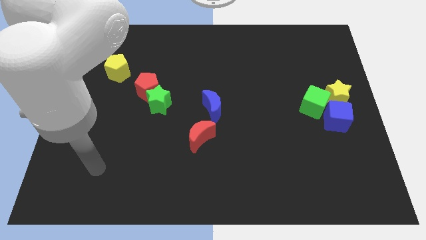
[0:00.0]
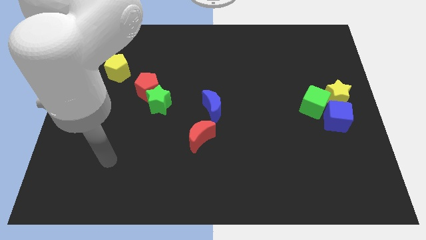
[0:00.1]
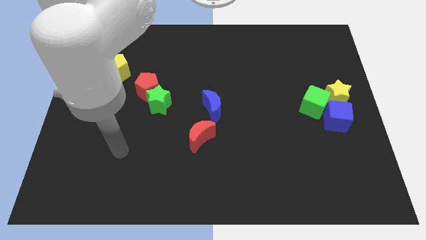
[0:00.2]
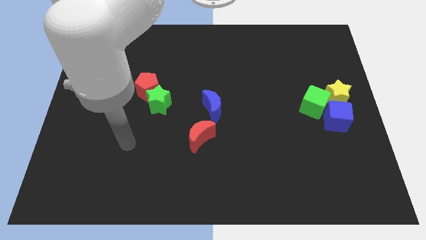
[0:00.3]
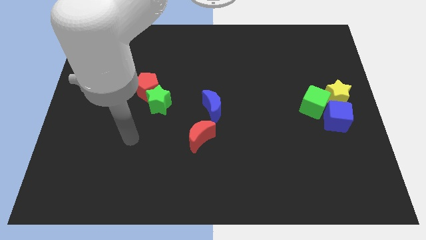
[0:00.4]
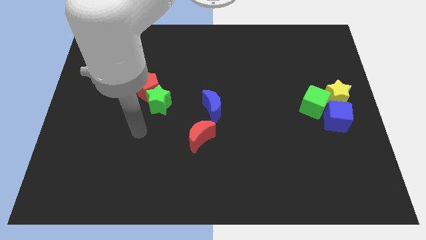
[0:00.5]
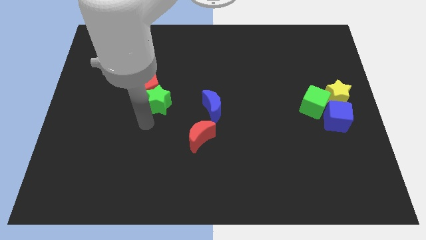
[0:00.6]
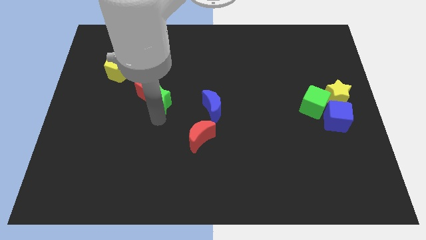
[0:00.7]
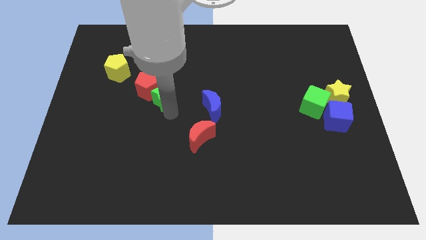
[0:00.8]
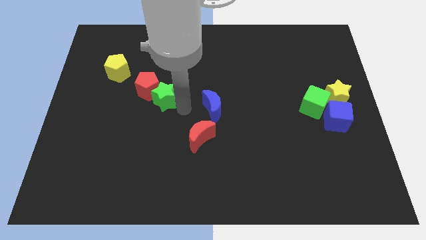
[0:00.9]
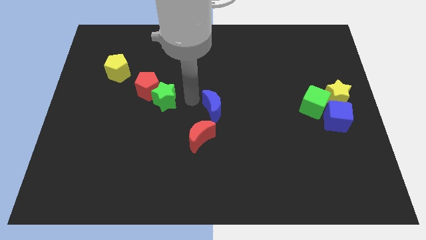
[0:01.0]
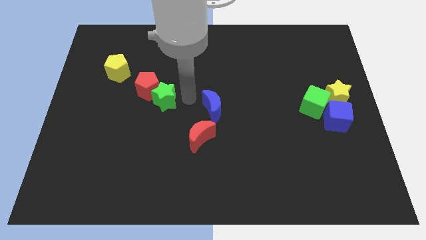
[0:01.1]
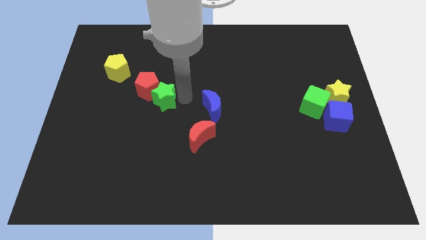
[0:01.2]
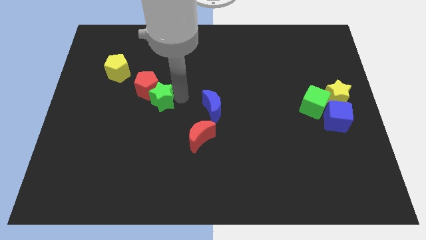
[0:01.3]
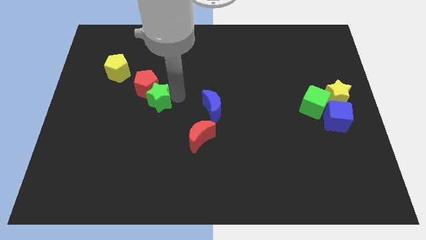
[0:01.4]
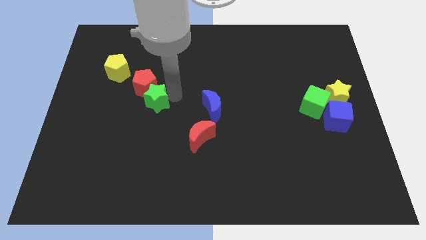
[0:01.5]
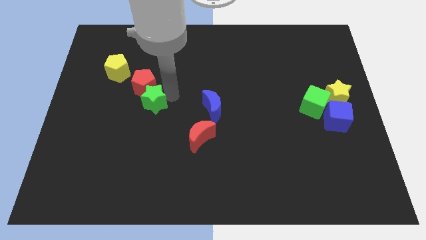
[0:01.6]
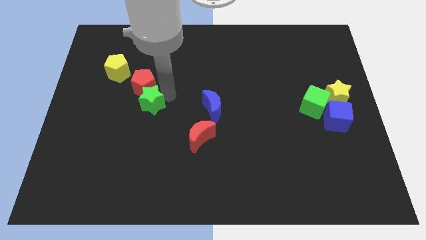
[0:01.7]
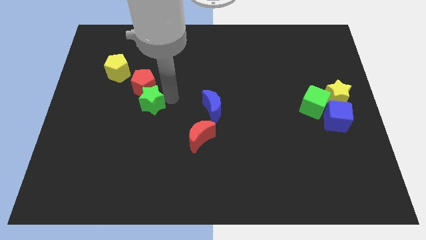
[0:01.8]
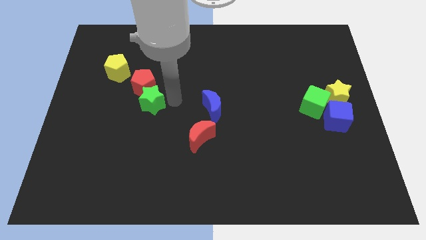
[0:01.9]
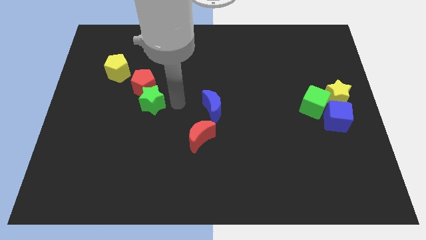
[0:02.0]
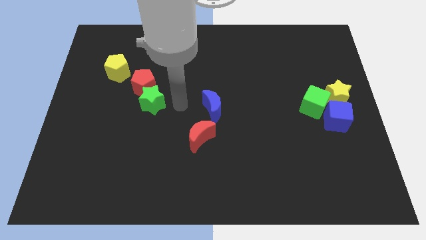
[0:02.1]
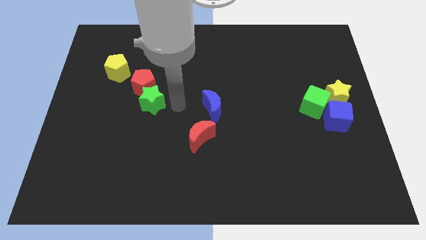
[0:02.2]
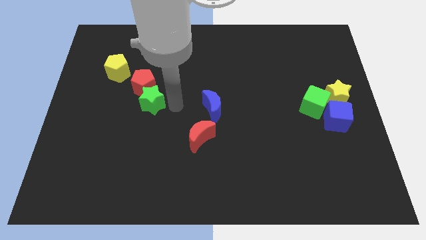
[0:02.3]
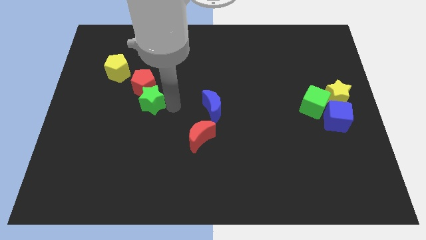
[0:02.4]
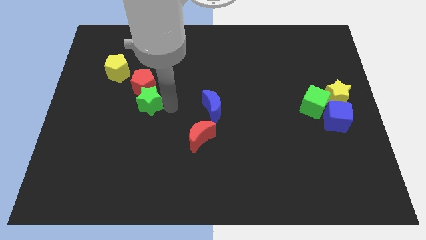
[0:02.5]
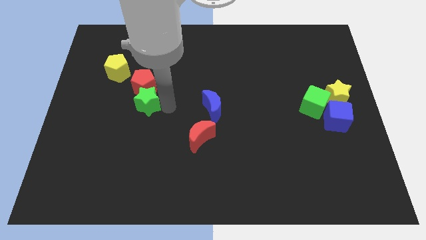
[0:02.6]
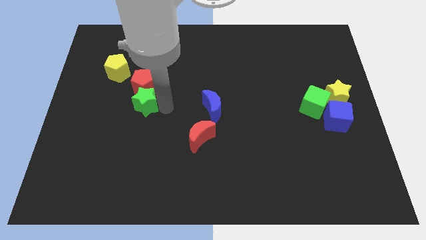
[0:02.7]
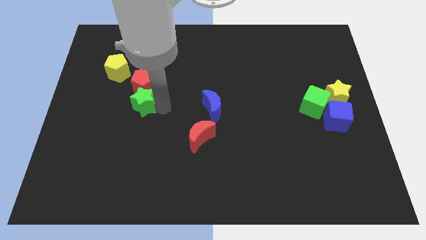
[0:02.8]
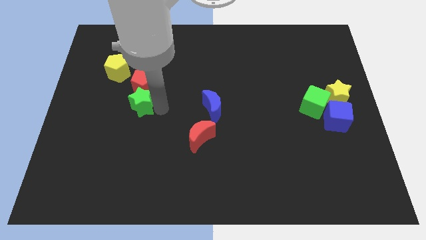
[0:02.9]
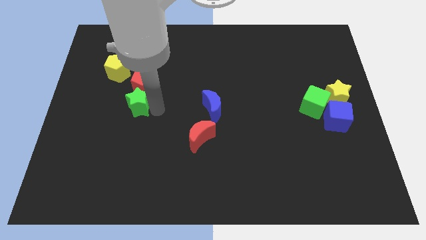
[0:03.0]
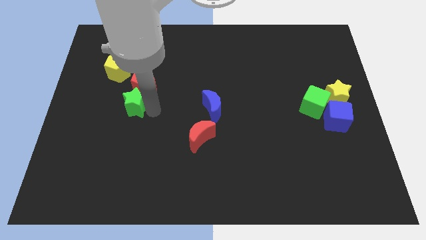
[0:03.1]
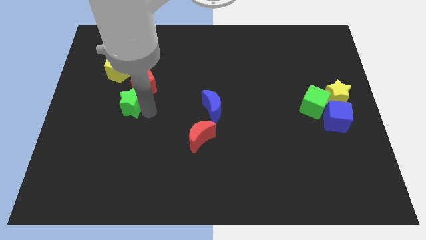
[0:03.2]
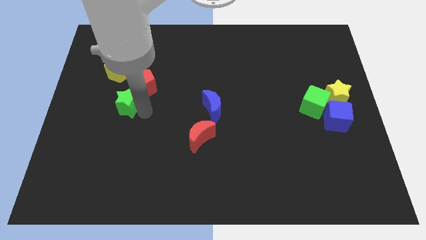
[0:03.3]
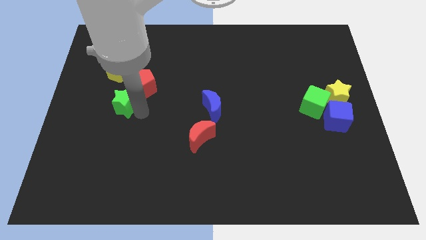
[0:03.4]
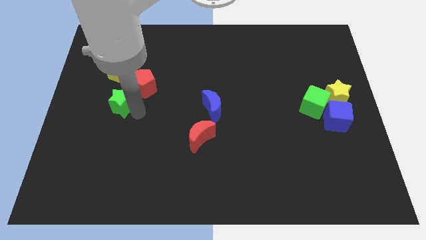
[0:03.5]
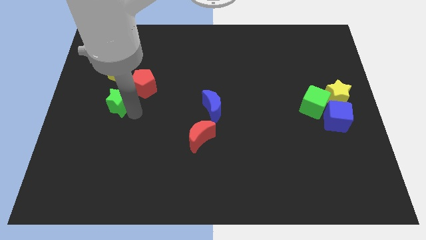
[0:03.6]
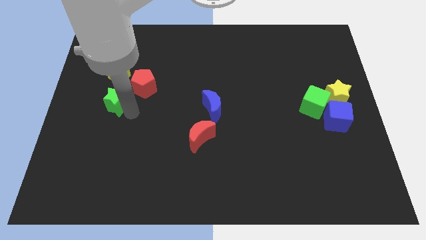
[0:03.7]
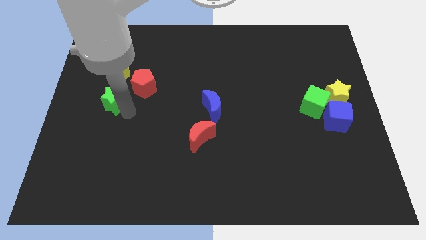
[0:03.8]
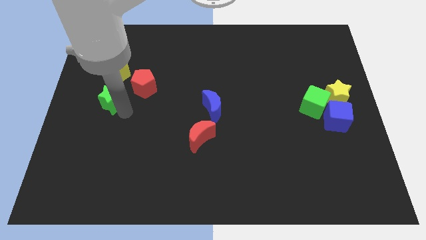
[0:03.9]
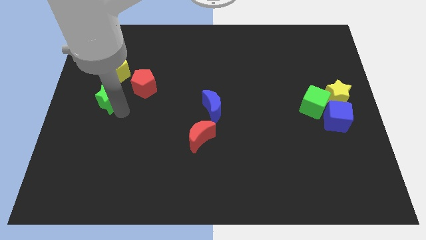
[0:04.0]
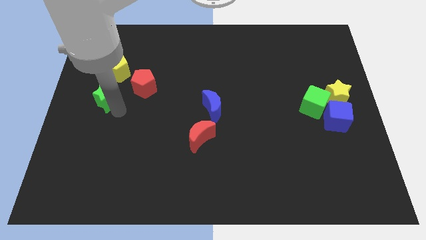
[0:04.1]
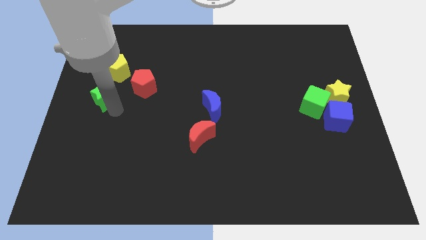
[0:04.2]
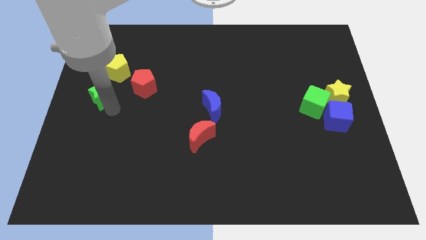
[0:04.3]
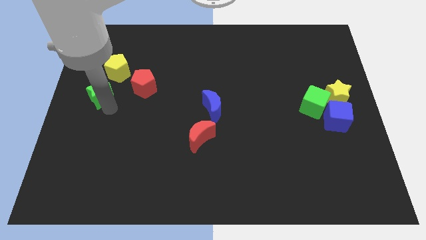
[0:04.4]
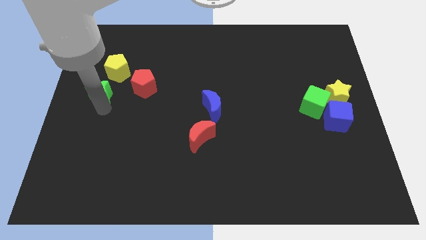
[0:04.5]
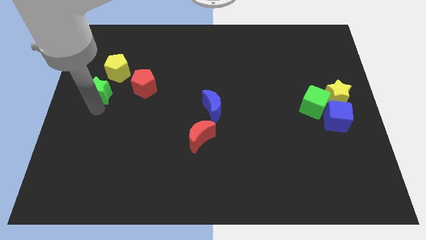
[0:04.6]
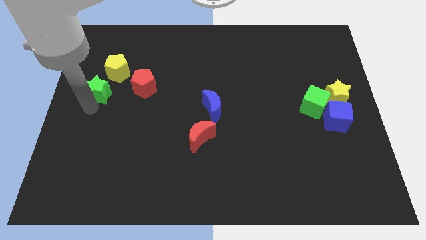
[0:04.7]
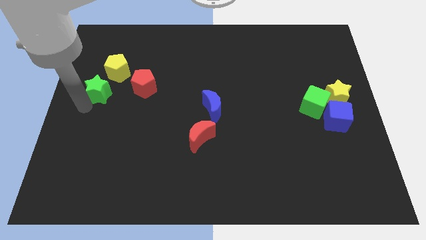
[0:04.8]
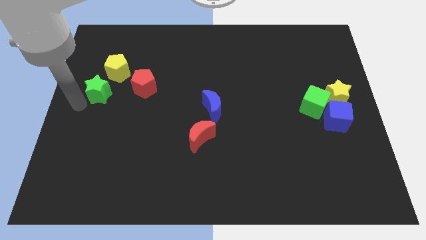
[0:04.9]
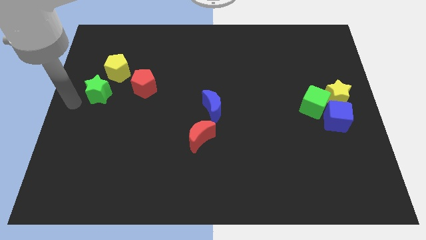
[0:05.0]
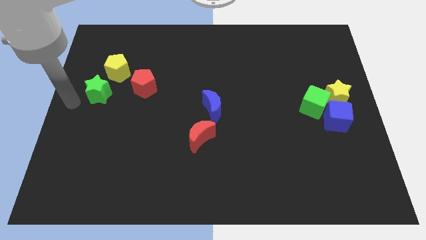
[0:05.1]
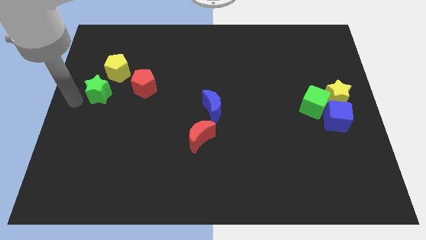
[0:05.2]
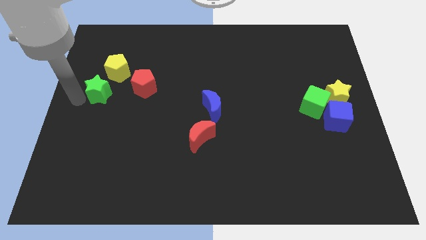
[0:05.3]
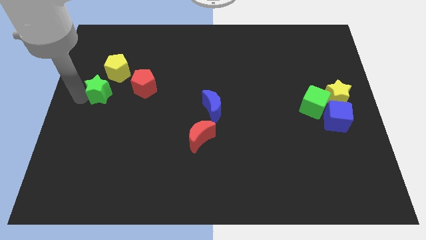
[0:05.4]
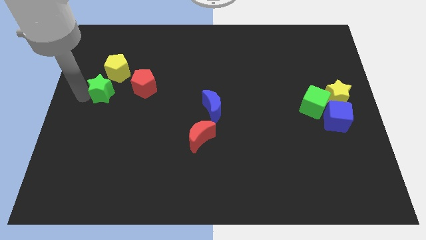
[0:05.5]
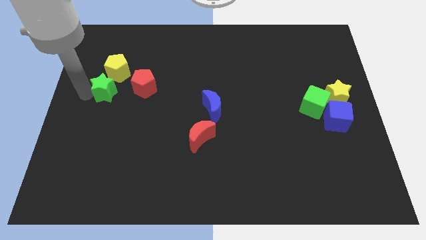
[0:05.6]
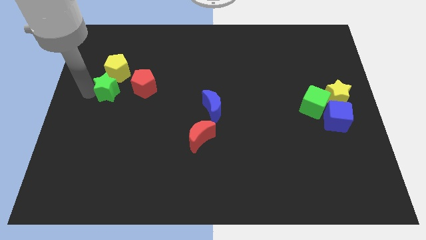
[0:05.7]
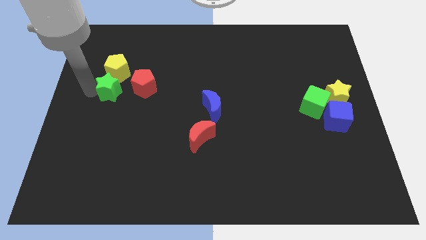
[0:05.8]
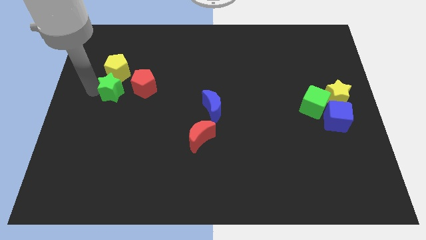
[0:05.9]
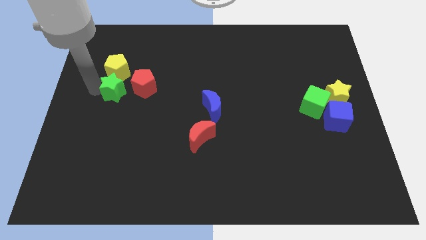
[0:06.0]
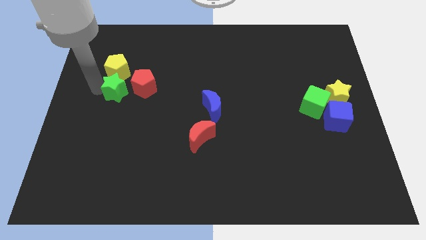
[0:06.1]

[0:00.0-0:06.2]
move the green star next to the yellow pentagon

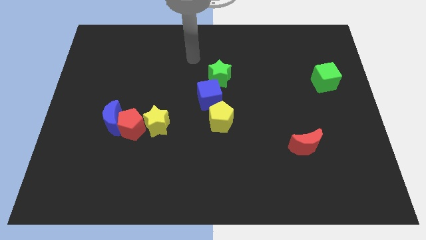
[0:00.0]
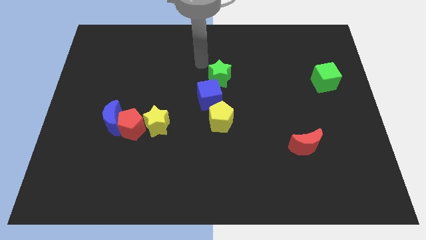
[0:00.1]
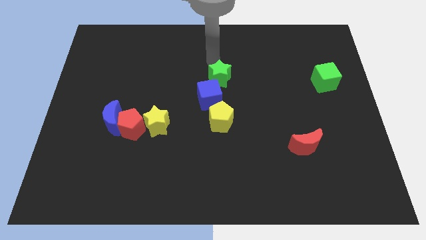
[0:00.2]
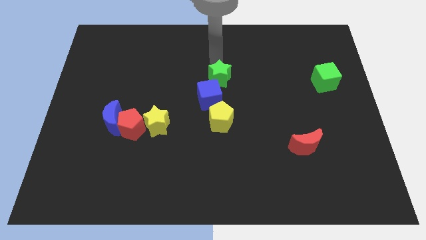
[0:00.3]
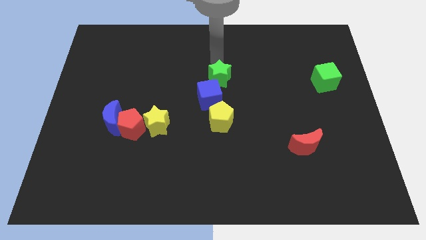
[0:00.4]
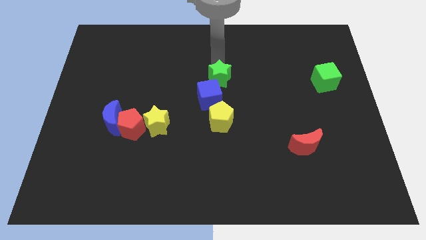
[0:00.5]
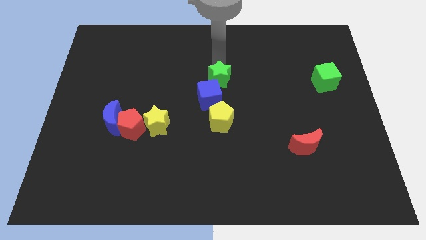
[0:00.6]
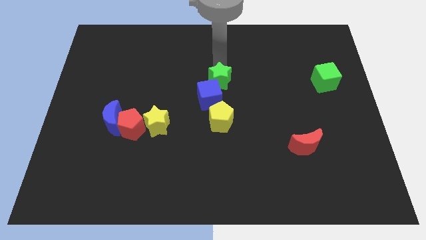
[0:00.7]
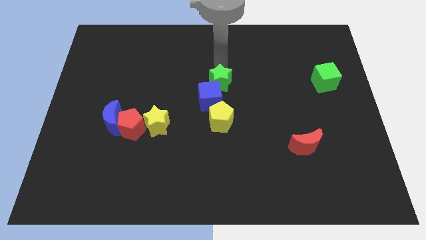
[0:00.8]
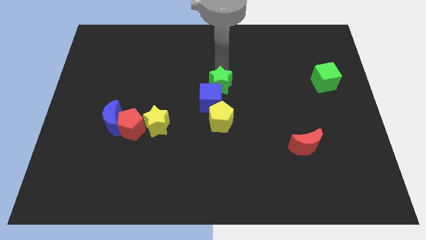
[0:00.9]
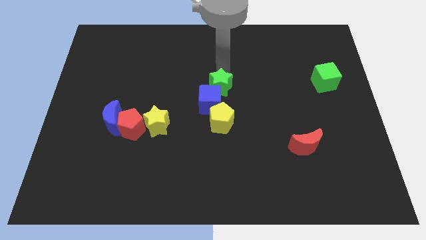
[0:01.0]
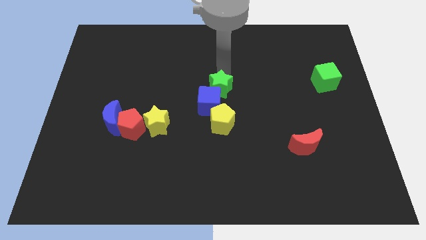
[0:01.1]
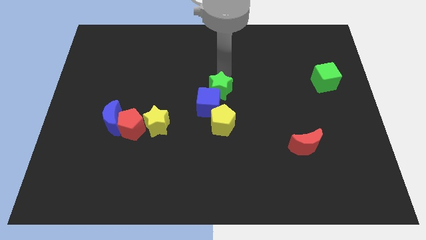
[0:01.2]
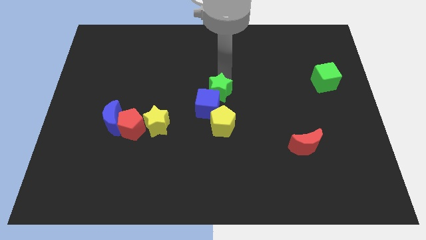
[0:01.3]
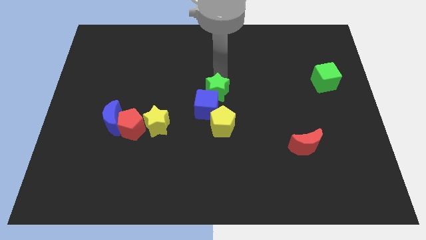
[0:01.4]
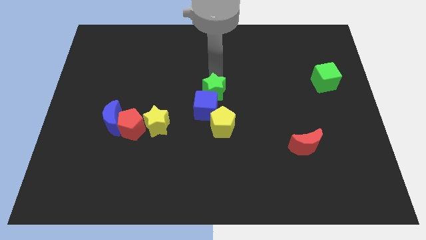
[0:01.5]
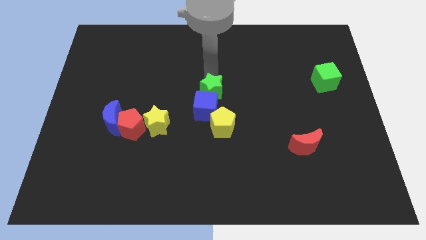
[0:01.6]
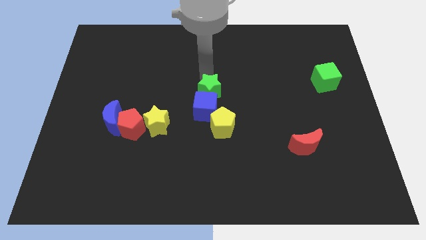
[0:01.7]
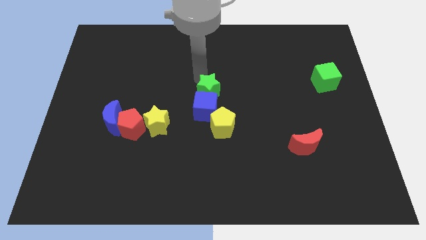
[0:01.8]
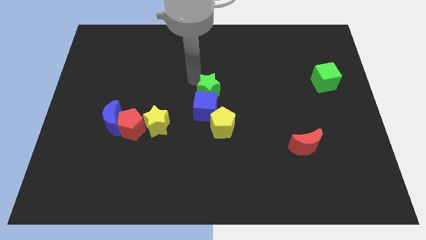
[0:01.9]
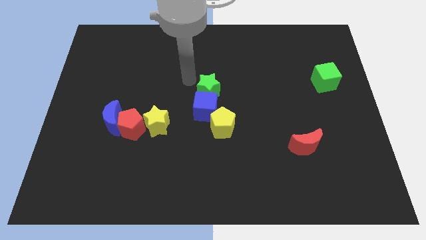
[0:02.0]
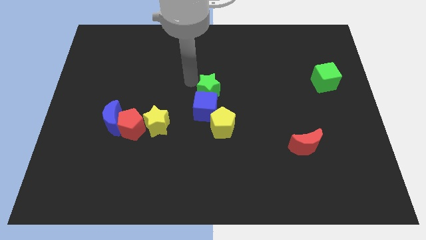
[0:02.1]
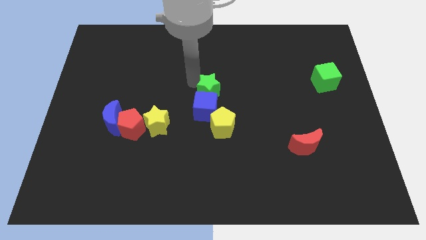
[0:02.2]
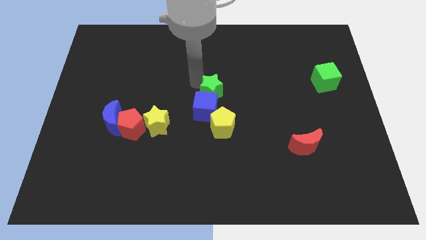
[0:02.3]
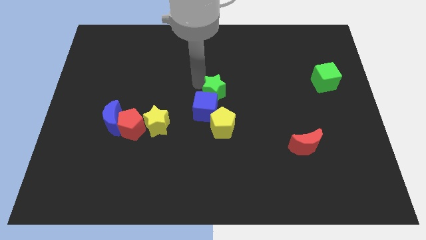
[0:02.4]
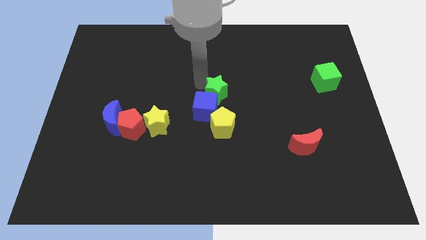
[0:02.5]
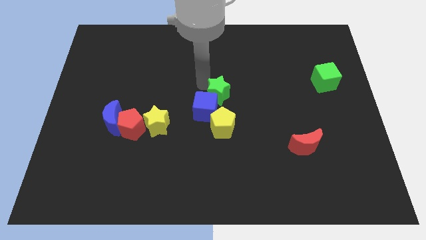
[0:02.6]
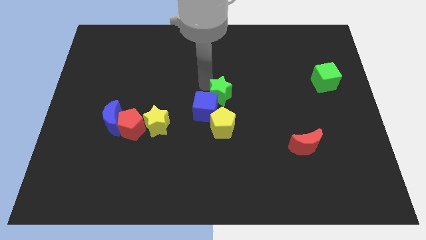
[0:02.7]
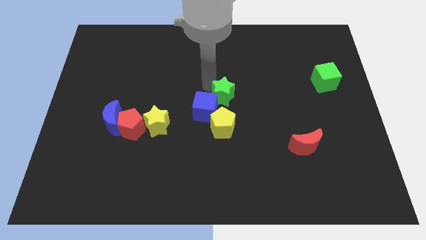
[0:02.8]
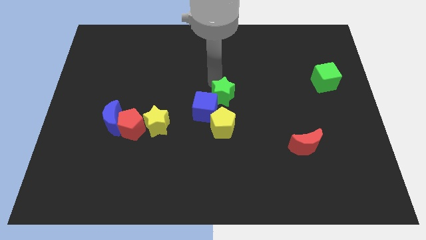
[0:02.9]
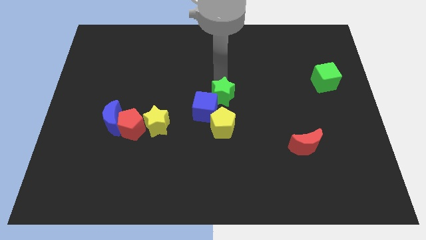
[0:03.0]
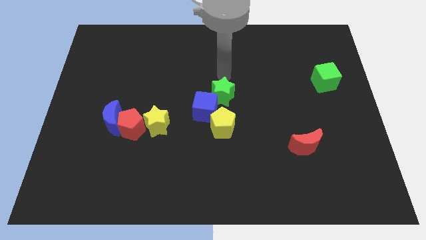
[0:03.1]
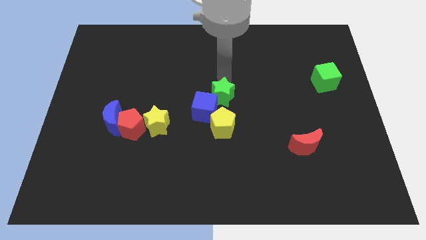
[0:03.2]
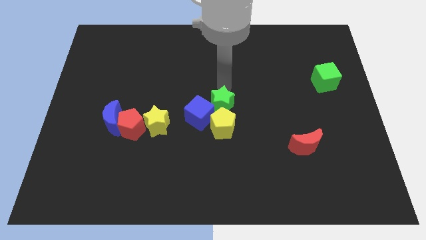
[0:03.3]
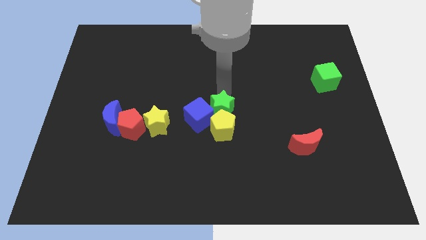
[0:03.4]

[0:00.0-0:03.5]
push the green star towards the yellow pentagon
